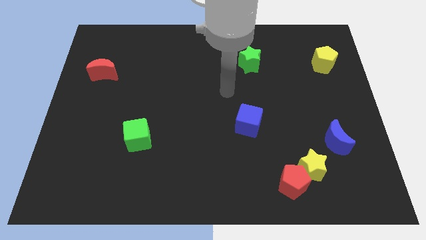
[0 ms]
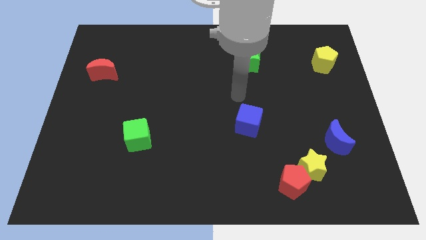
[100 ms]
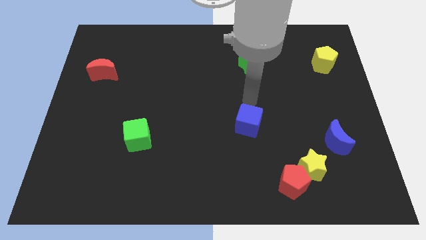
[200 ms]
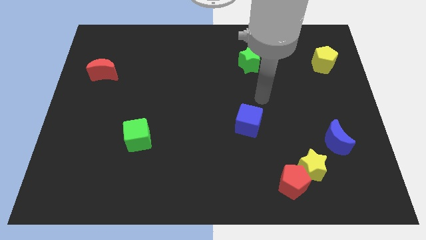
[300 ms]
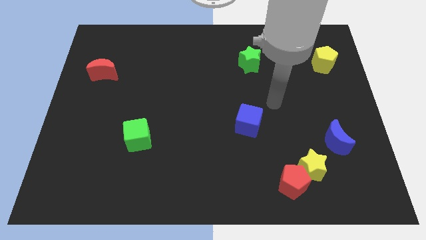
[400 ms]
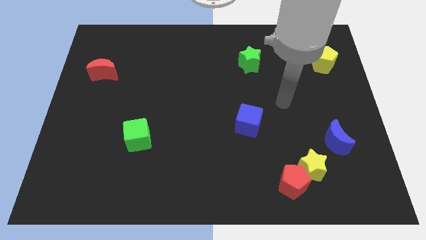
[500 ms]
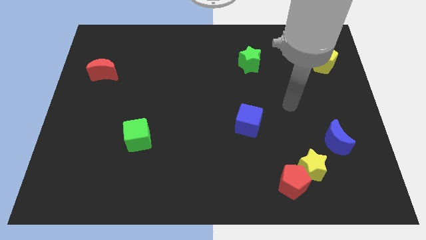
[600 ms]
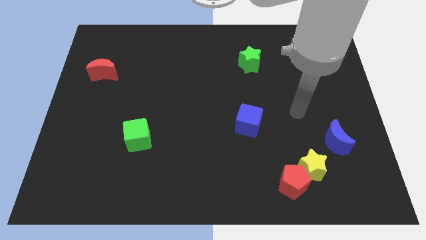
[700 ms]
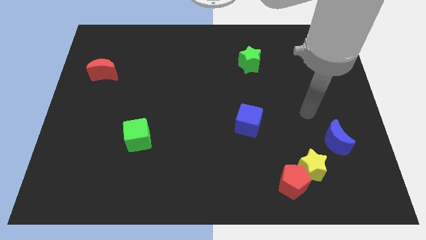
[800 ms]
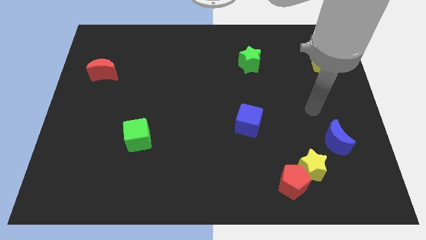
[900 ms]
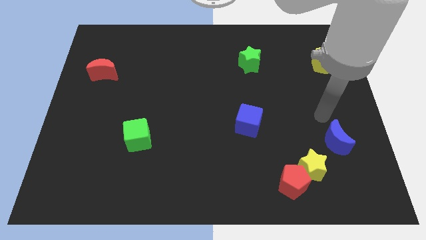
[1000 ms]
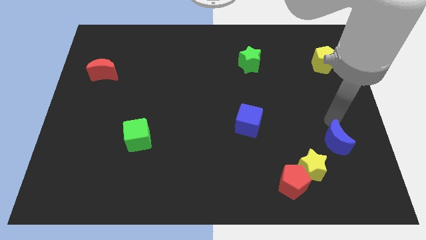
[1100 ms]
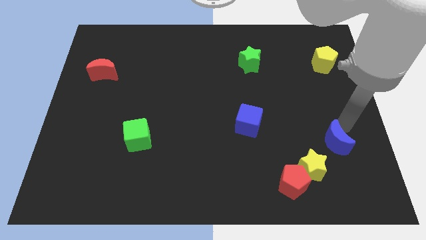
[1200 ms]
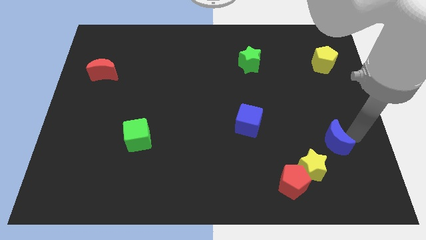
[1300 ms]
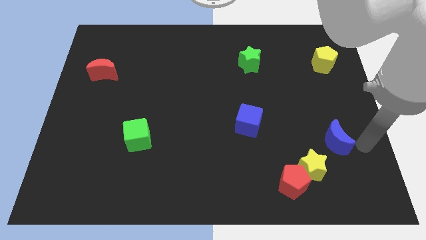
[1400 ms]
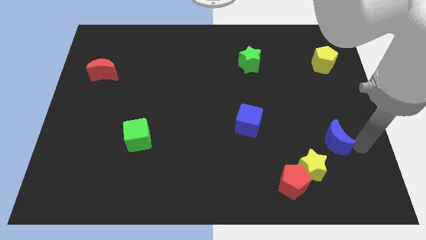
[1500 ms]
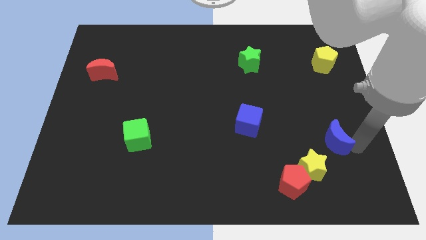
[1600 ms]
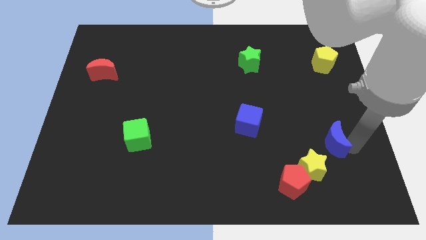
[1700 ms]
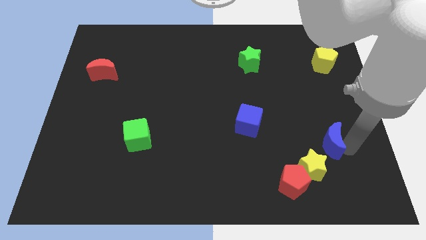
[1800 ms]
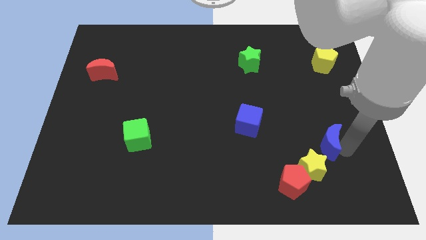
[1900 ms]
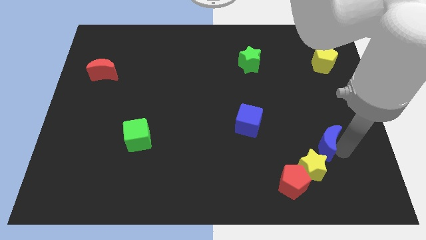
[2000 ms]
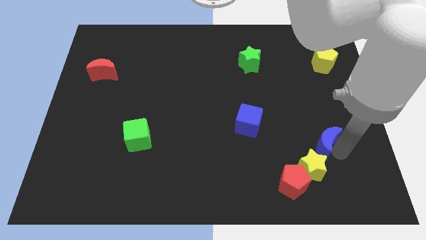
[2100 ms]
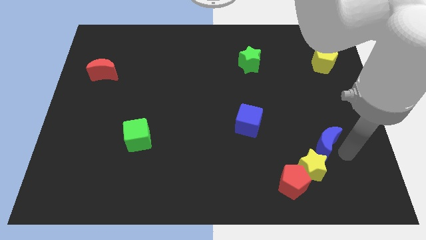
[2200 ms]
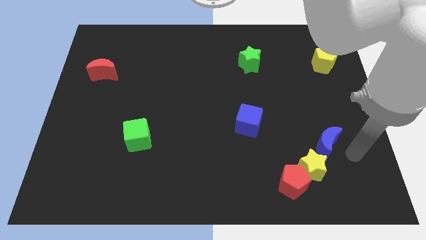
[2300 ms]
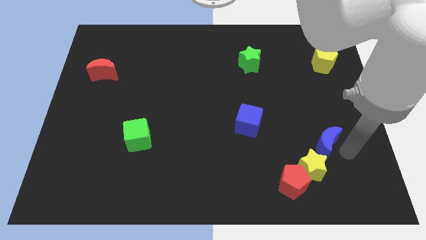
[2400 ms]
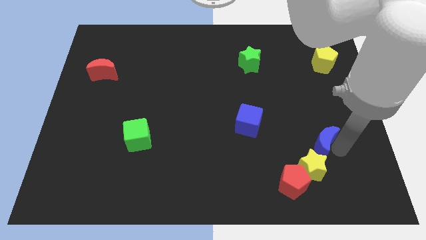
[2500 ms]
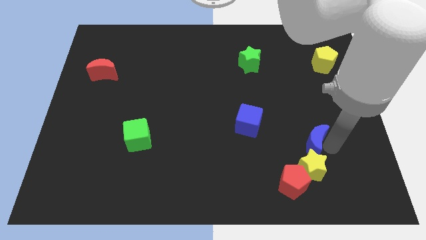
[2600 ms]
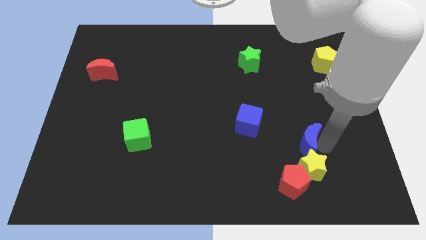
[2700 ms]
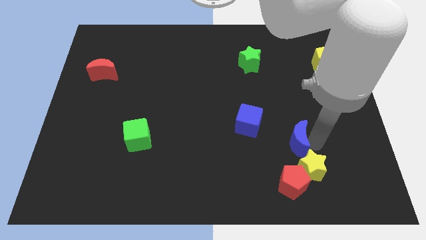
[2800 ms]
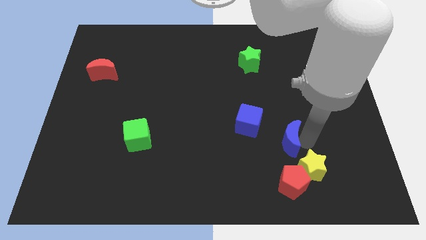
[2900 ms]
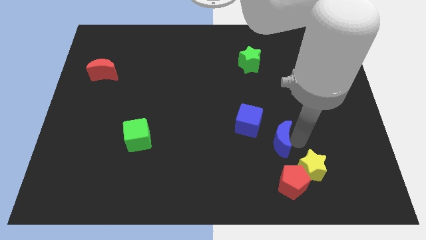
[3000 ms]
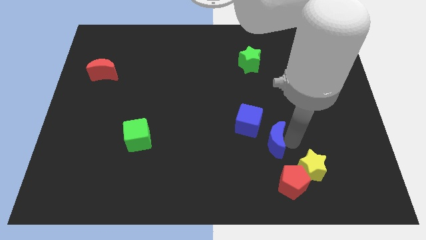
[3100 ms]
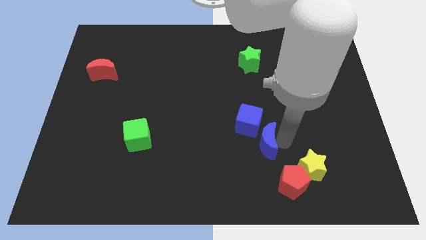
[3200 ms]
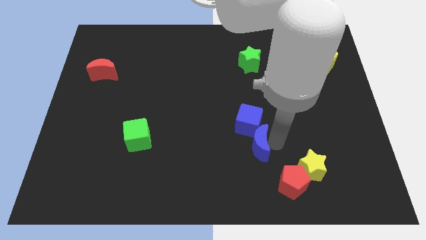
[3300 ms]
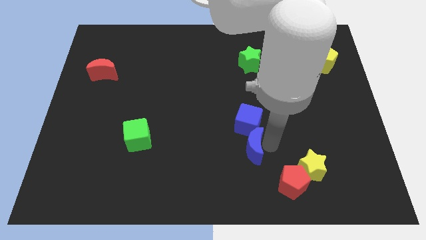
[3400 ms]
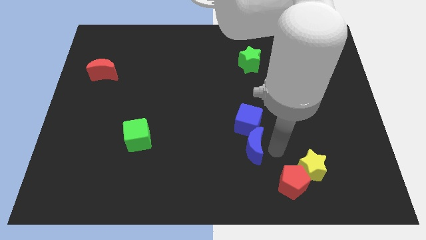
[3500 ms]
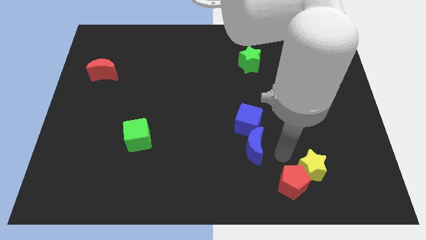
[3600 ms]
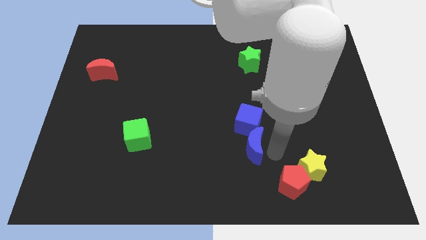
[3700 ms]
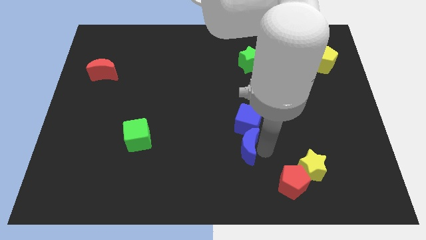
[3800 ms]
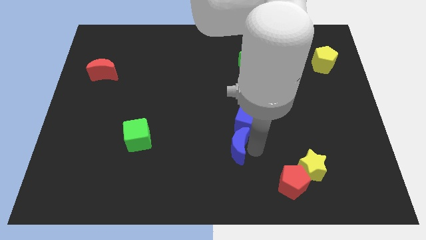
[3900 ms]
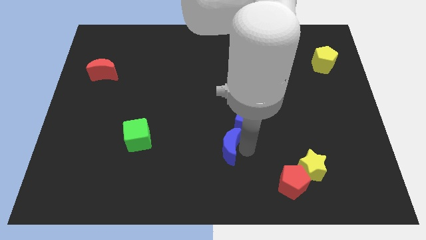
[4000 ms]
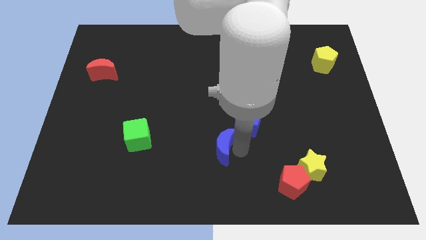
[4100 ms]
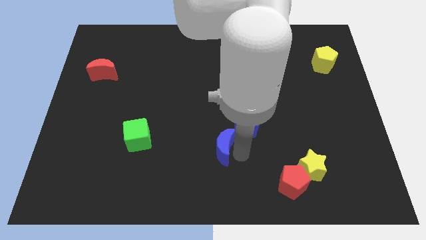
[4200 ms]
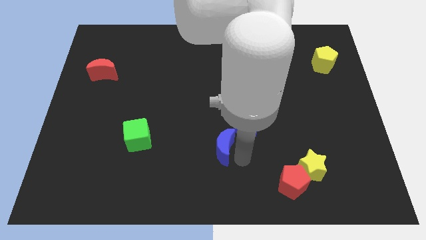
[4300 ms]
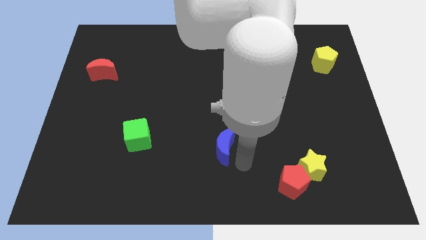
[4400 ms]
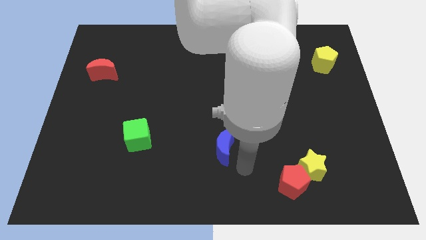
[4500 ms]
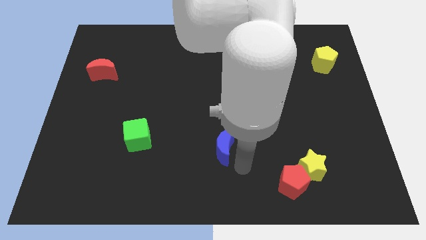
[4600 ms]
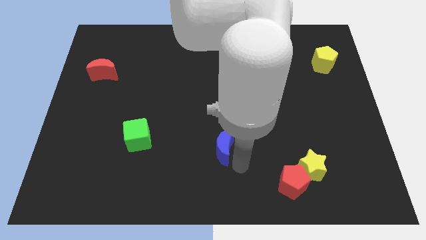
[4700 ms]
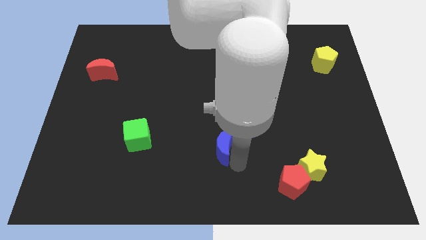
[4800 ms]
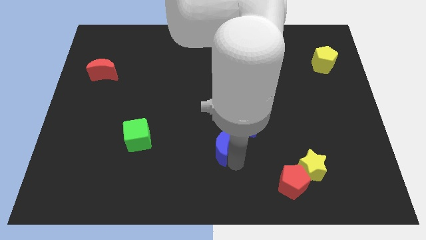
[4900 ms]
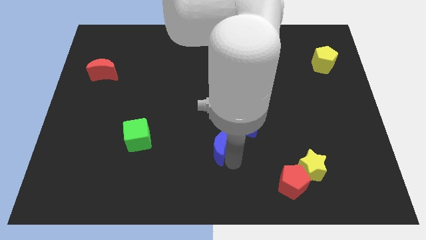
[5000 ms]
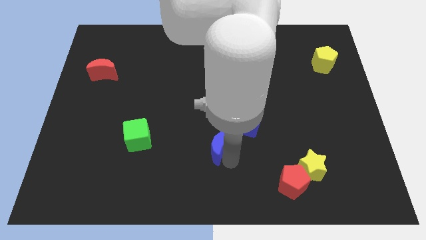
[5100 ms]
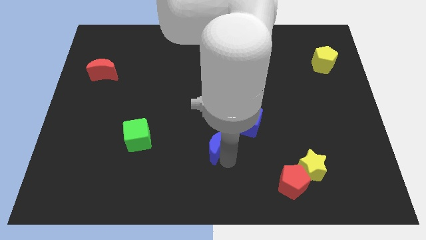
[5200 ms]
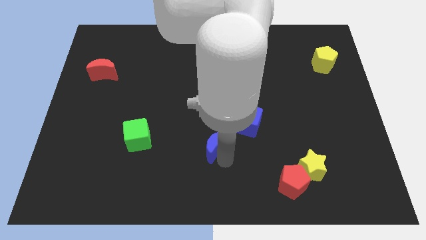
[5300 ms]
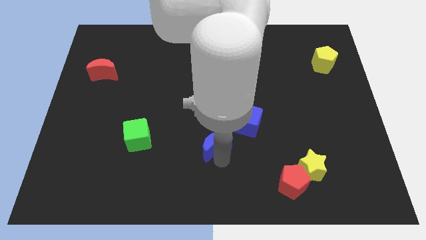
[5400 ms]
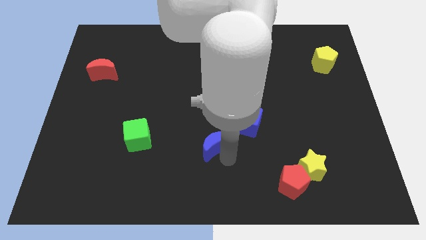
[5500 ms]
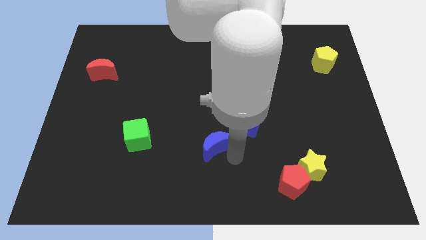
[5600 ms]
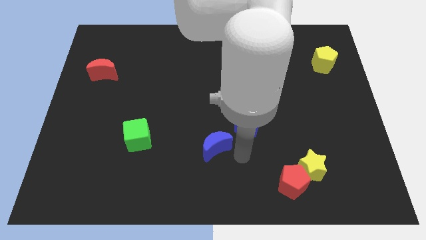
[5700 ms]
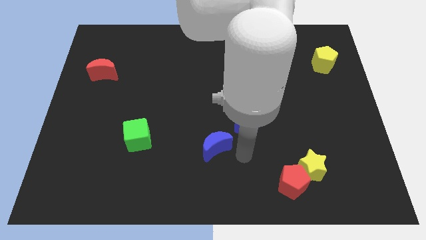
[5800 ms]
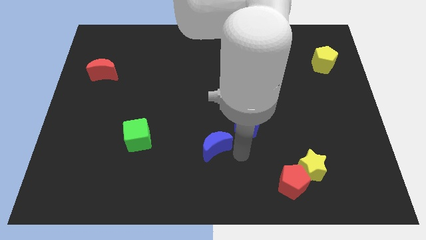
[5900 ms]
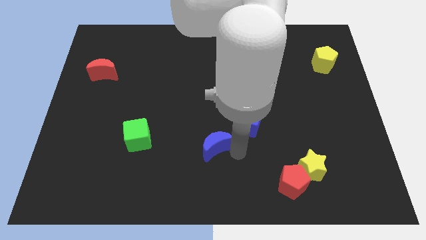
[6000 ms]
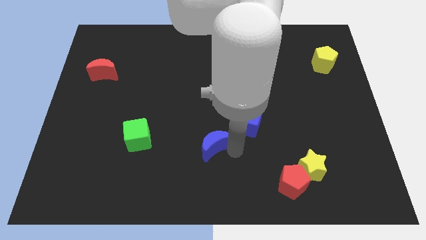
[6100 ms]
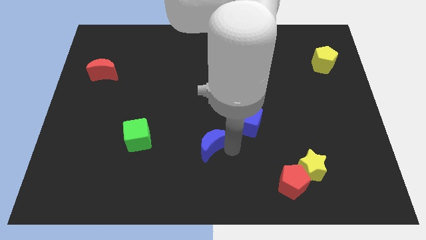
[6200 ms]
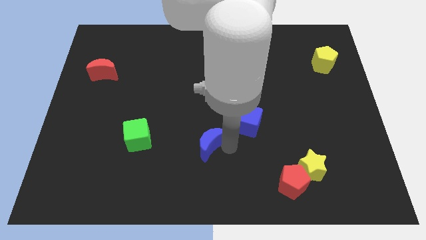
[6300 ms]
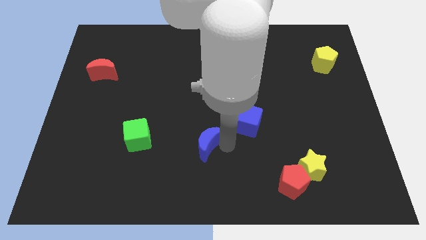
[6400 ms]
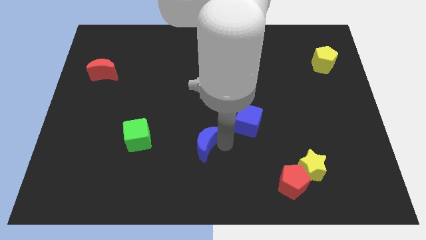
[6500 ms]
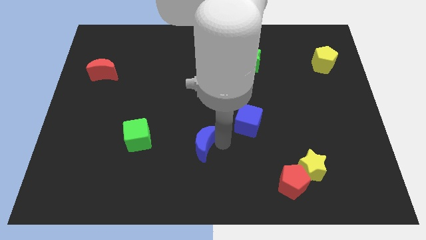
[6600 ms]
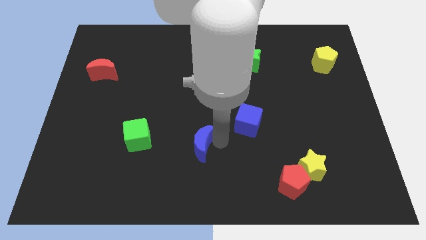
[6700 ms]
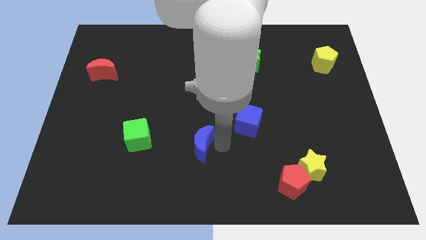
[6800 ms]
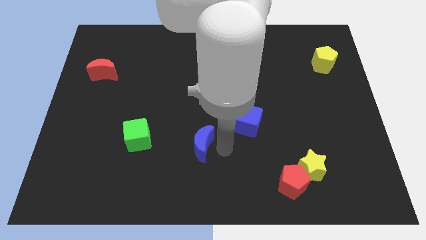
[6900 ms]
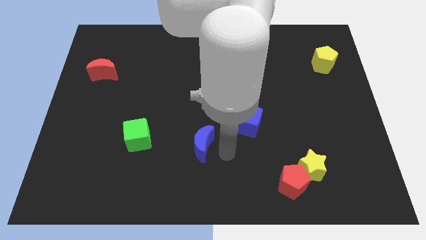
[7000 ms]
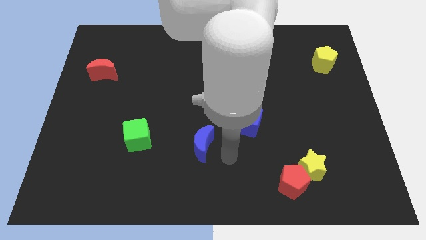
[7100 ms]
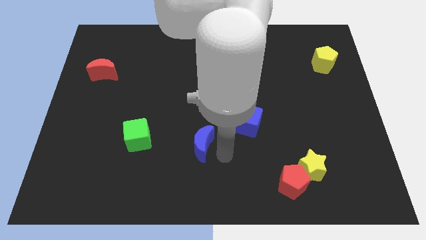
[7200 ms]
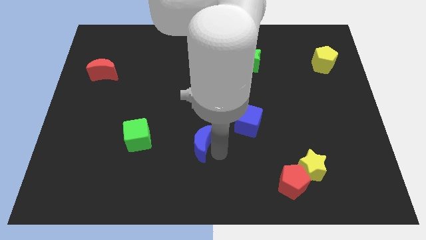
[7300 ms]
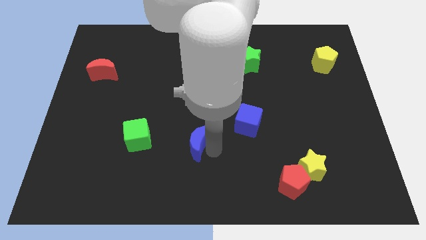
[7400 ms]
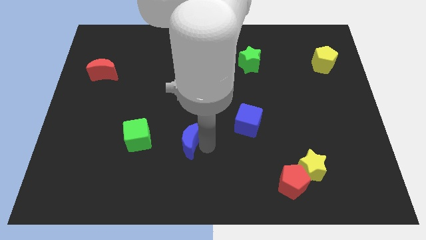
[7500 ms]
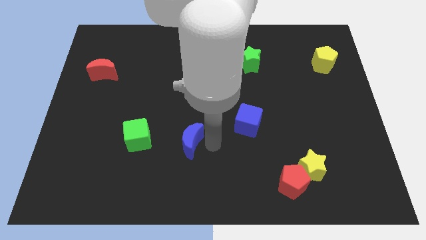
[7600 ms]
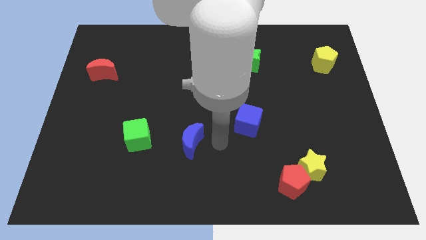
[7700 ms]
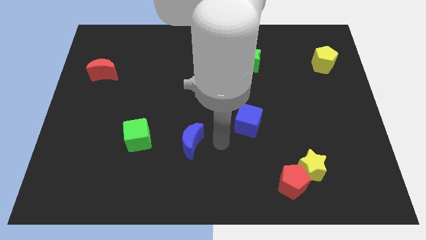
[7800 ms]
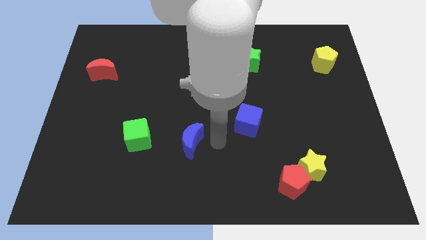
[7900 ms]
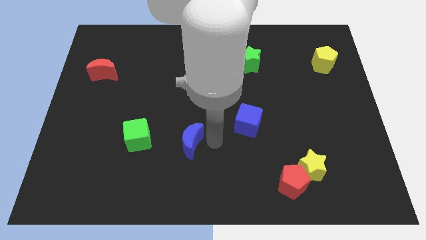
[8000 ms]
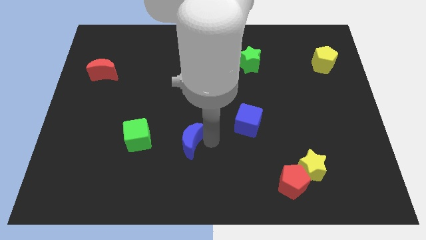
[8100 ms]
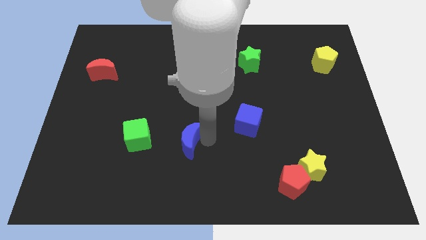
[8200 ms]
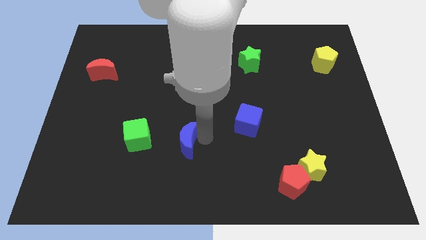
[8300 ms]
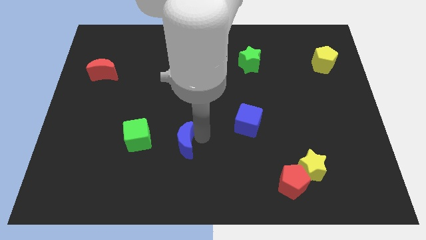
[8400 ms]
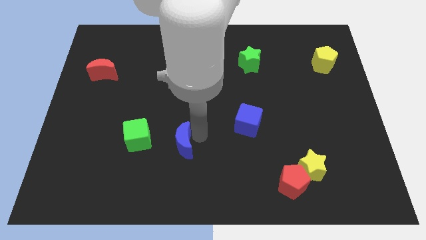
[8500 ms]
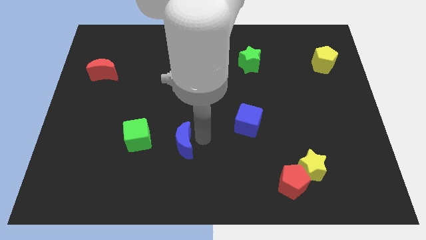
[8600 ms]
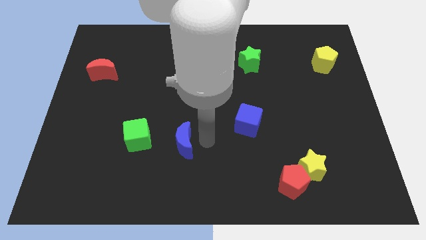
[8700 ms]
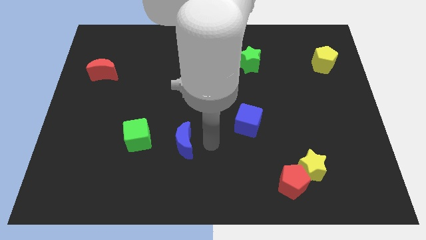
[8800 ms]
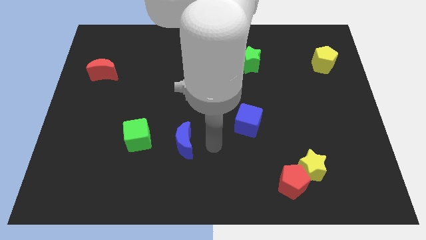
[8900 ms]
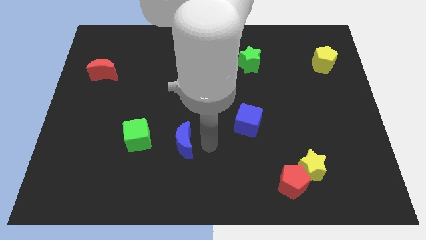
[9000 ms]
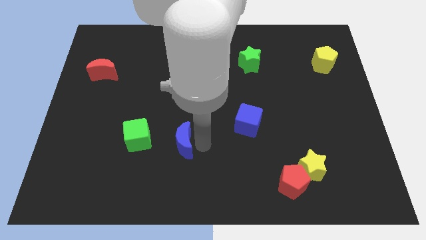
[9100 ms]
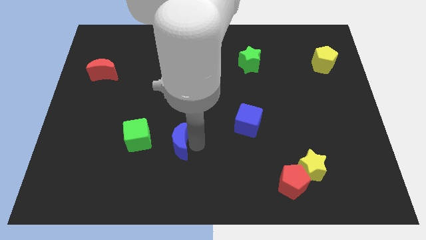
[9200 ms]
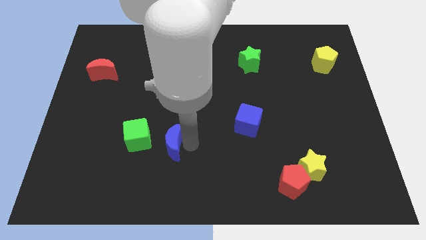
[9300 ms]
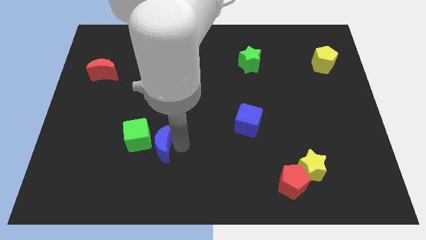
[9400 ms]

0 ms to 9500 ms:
put the blue moon next to the green cube
